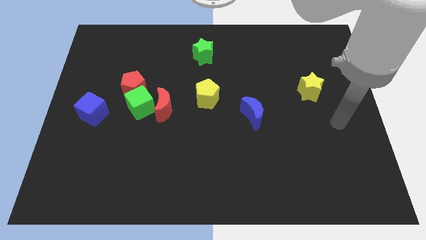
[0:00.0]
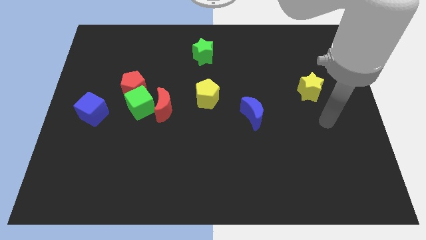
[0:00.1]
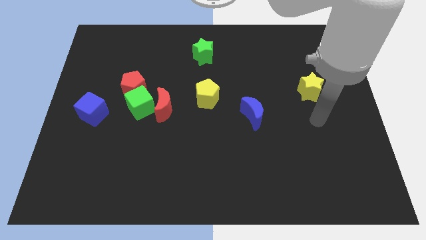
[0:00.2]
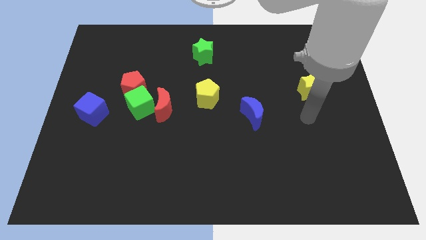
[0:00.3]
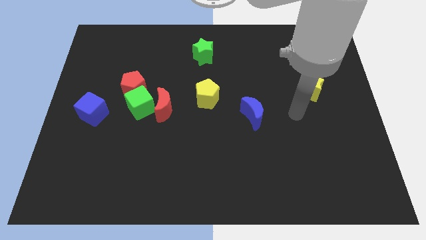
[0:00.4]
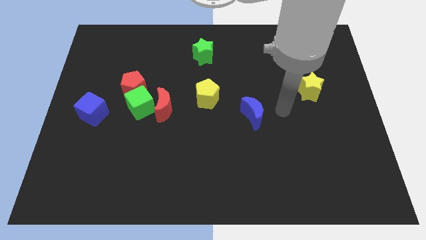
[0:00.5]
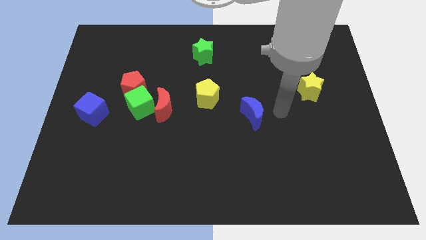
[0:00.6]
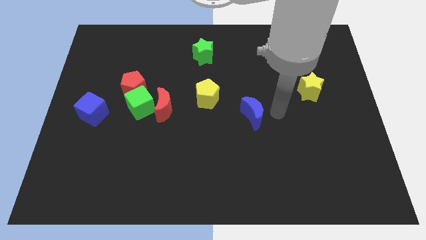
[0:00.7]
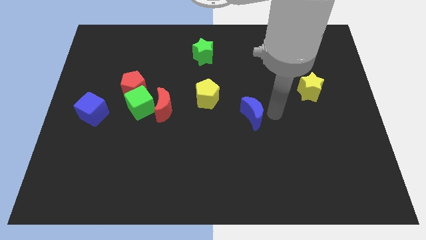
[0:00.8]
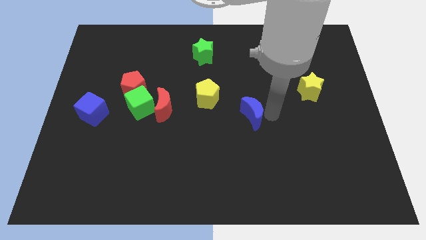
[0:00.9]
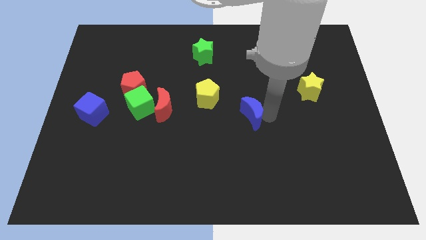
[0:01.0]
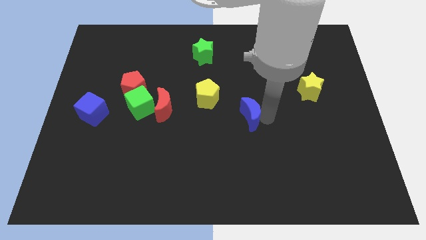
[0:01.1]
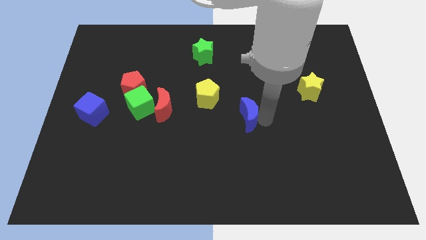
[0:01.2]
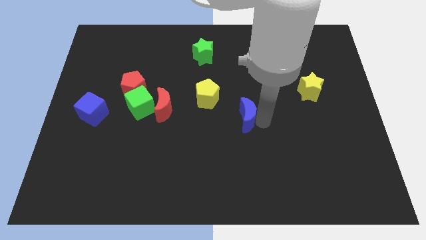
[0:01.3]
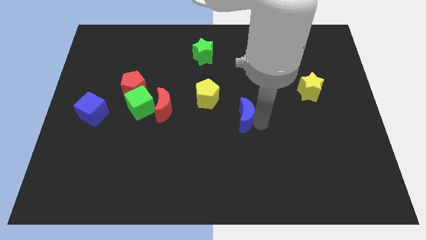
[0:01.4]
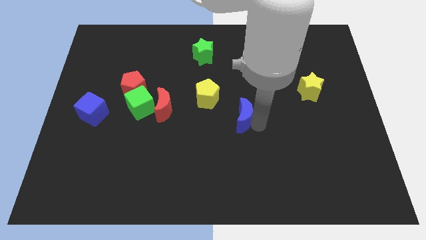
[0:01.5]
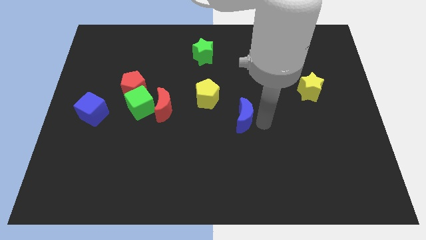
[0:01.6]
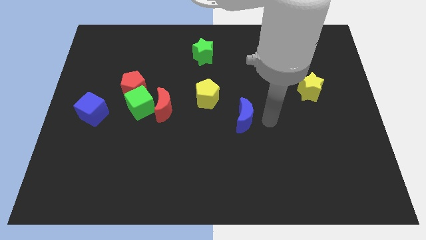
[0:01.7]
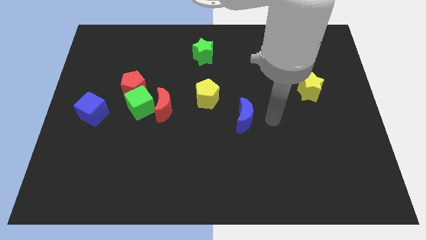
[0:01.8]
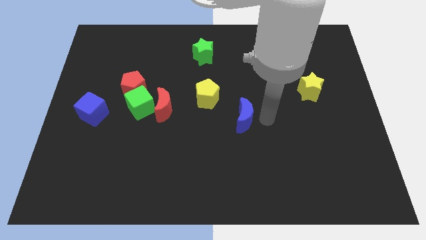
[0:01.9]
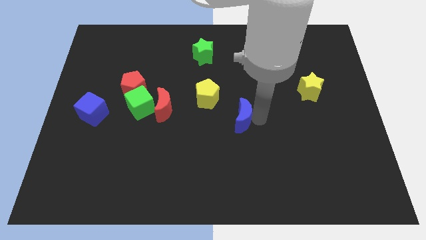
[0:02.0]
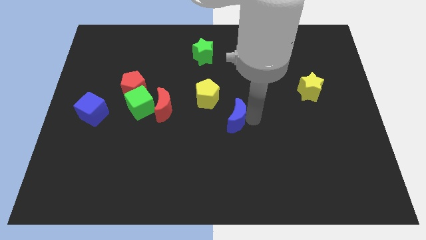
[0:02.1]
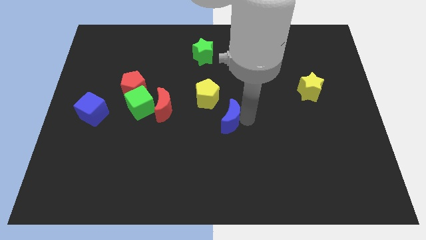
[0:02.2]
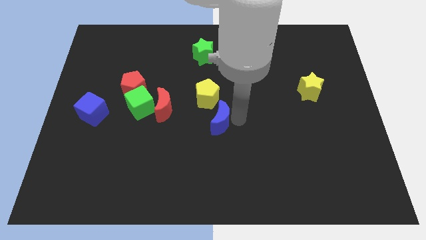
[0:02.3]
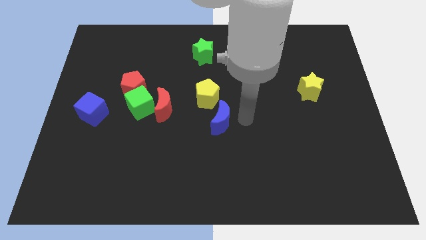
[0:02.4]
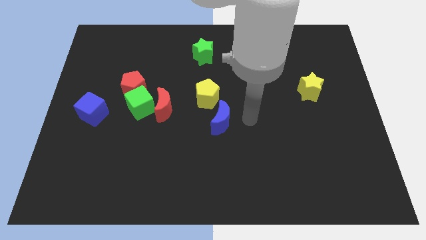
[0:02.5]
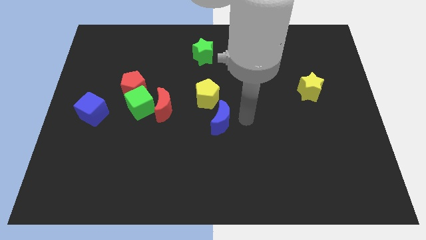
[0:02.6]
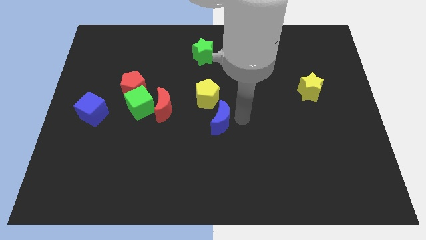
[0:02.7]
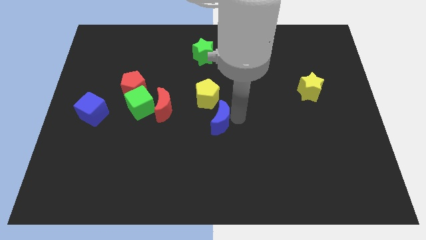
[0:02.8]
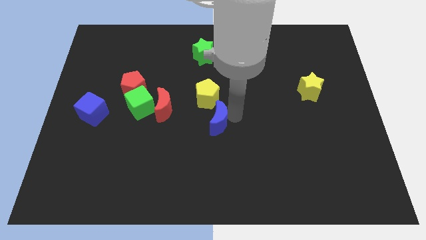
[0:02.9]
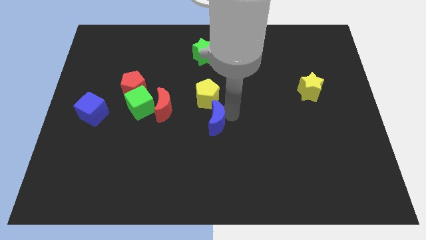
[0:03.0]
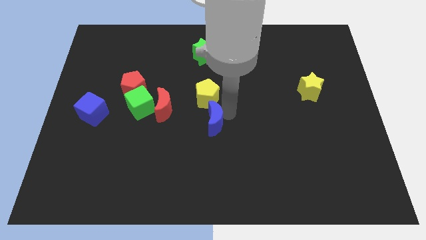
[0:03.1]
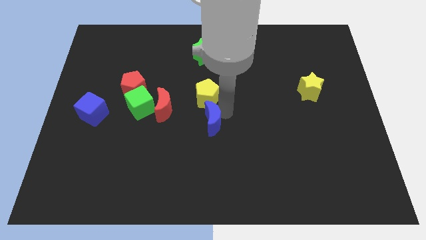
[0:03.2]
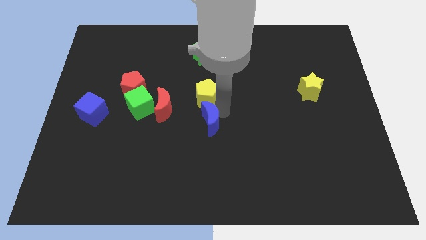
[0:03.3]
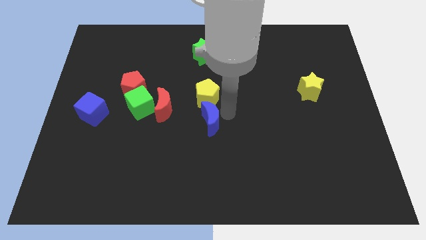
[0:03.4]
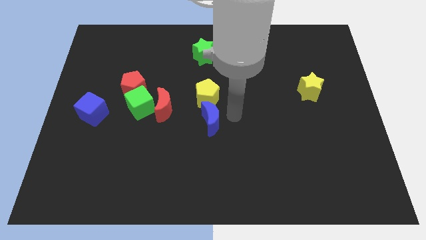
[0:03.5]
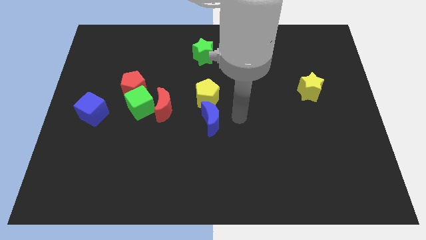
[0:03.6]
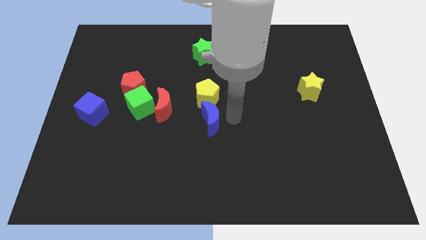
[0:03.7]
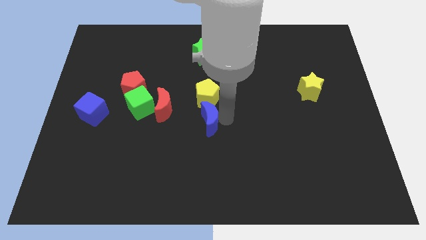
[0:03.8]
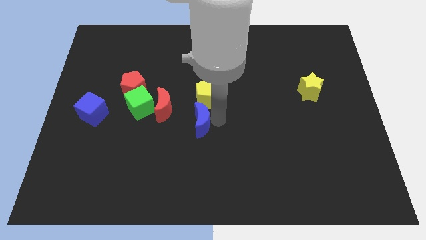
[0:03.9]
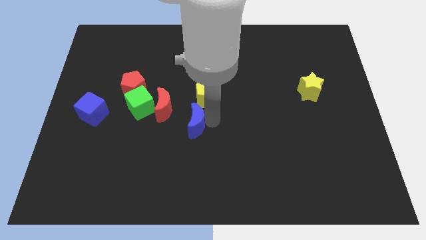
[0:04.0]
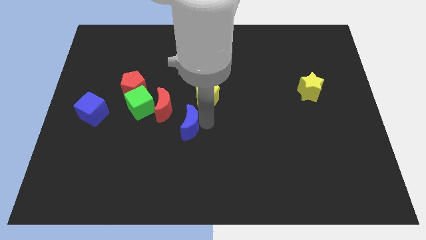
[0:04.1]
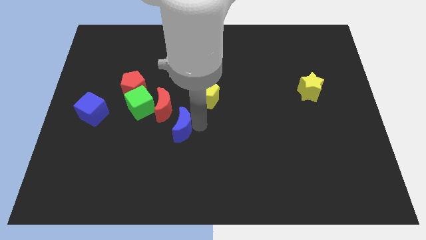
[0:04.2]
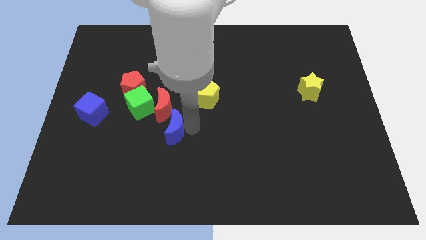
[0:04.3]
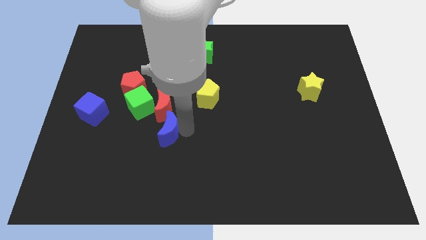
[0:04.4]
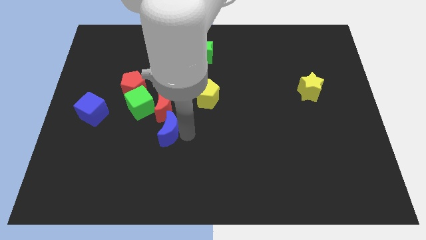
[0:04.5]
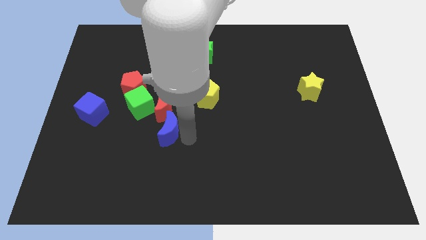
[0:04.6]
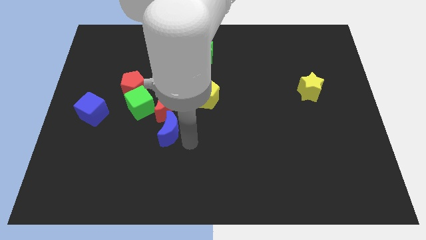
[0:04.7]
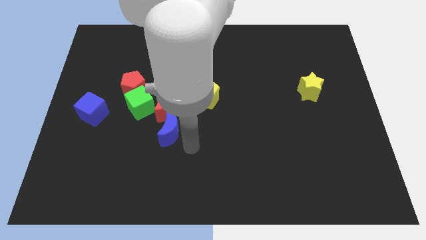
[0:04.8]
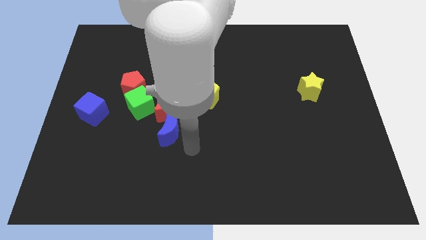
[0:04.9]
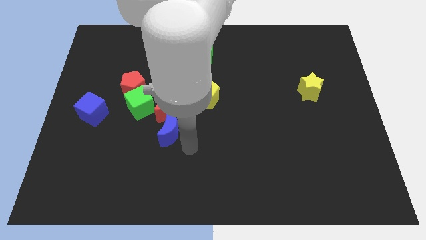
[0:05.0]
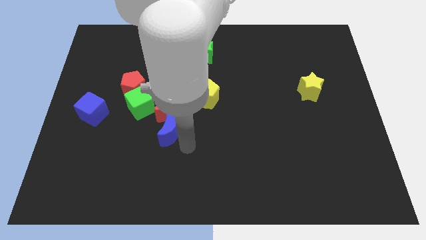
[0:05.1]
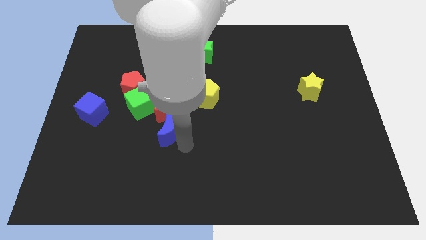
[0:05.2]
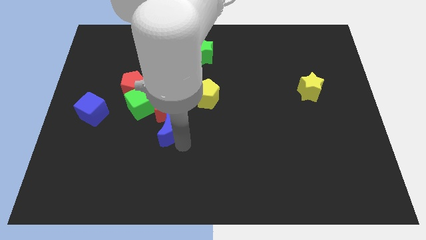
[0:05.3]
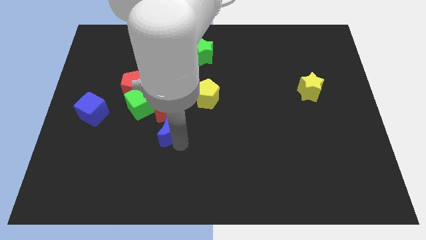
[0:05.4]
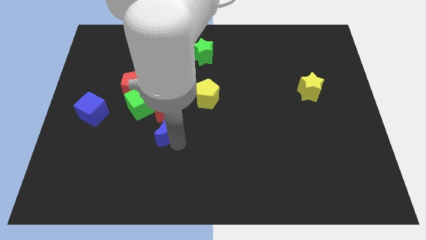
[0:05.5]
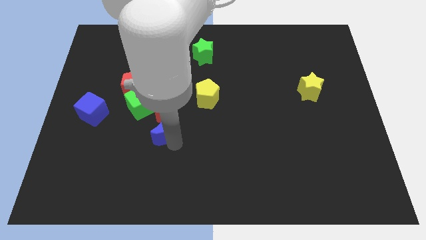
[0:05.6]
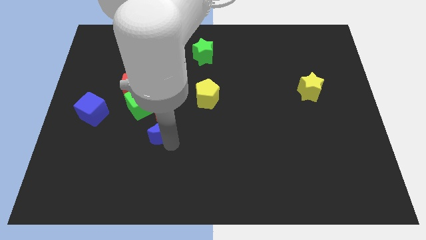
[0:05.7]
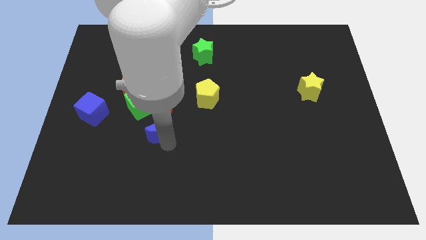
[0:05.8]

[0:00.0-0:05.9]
slide the blue moon to the left

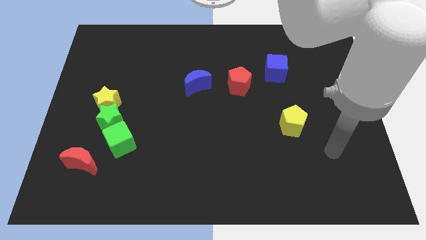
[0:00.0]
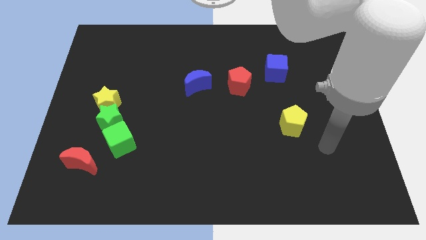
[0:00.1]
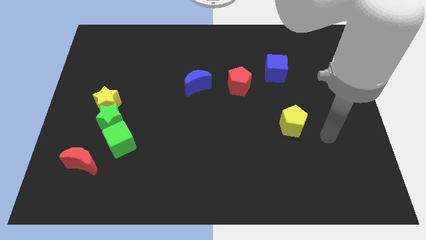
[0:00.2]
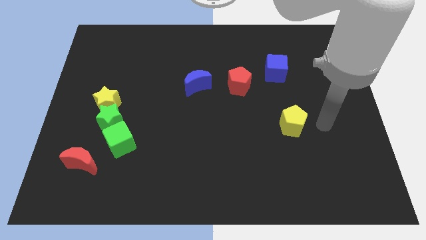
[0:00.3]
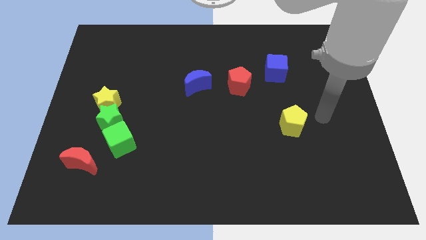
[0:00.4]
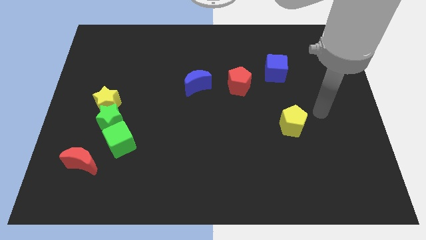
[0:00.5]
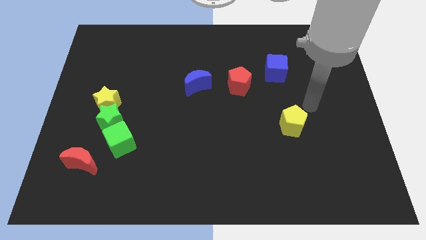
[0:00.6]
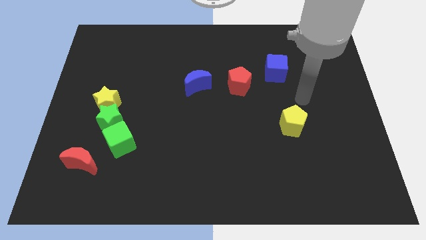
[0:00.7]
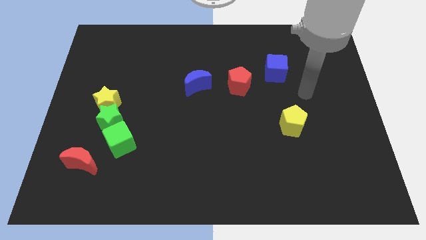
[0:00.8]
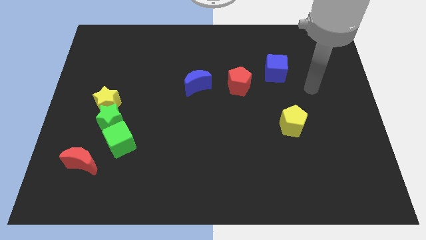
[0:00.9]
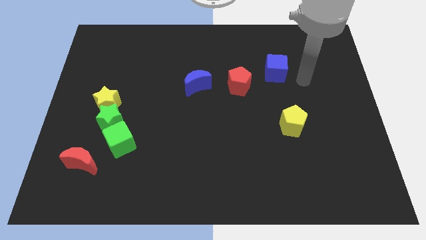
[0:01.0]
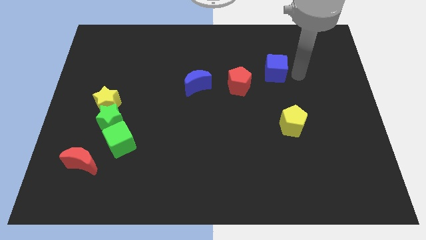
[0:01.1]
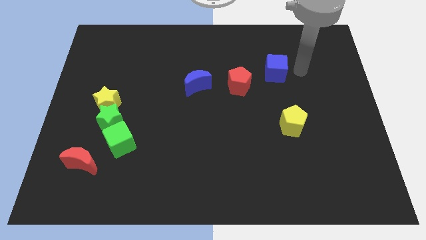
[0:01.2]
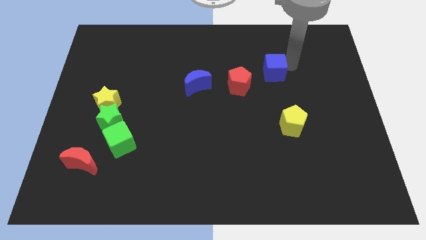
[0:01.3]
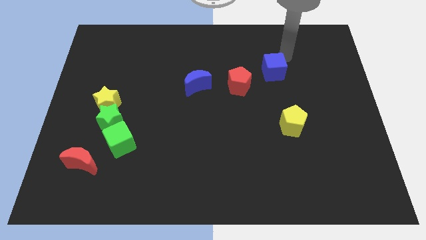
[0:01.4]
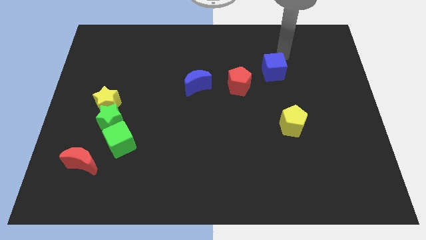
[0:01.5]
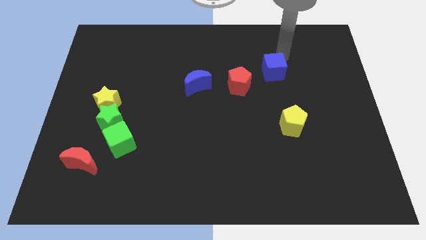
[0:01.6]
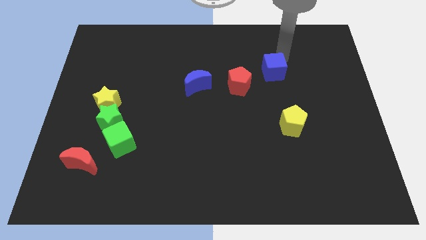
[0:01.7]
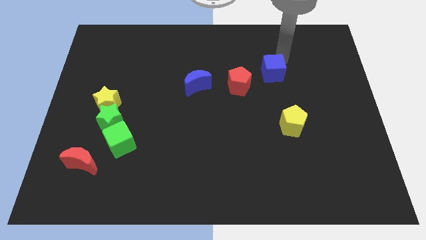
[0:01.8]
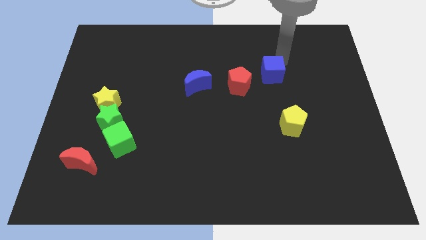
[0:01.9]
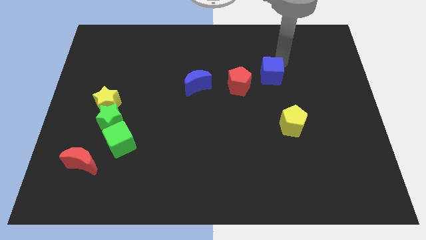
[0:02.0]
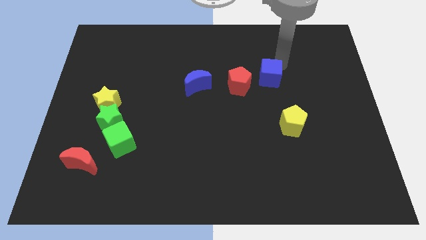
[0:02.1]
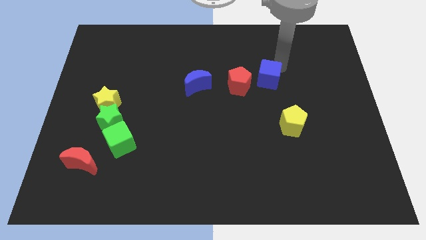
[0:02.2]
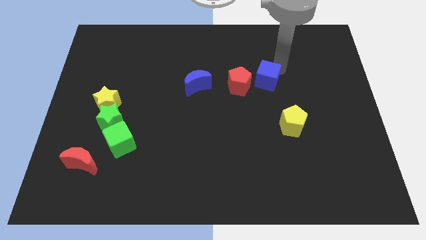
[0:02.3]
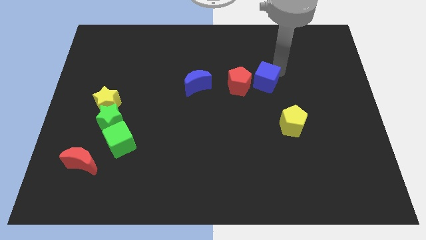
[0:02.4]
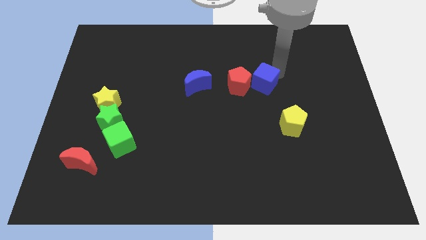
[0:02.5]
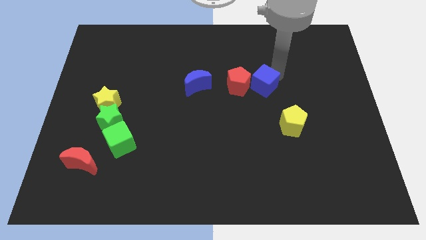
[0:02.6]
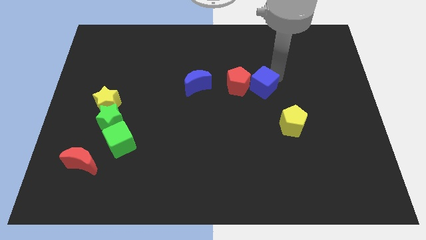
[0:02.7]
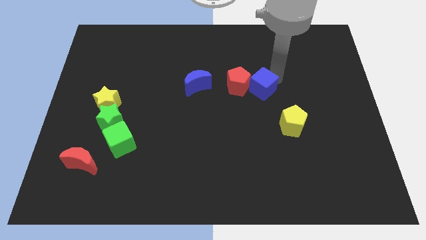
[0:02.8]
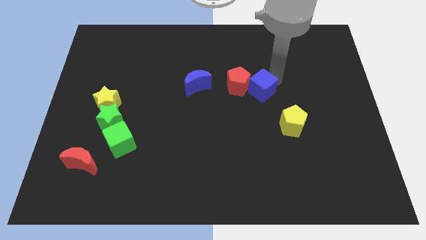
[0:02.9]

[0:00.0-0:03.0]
slightly push the blue cube downwards and to the left diagonally
